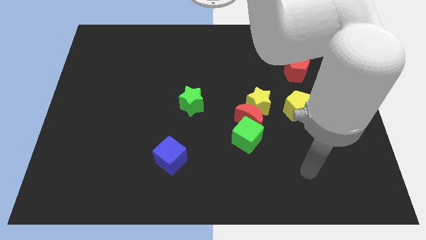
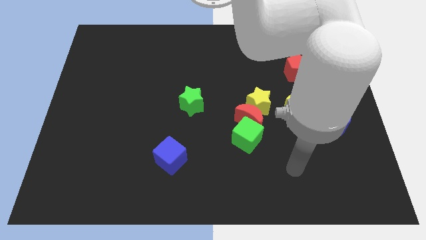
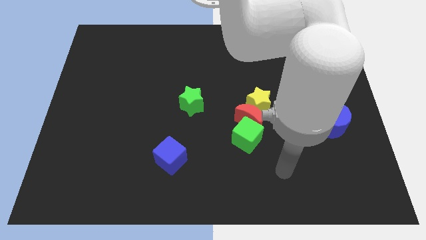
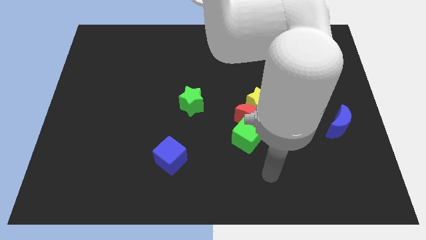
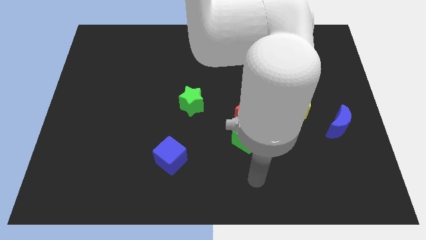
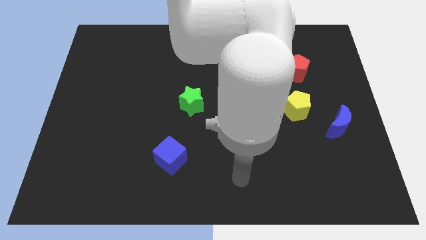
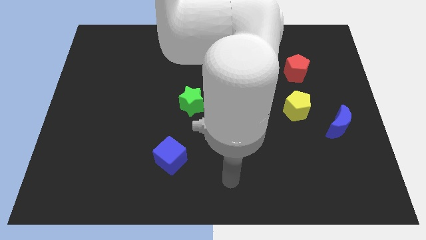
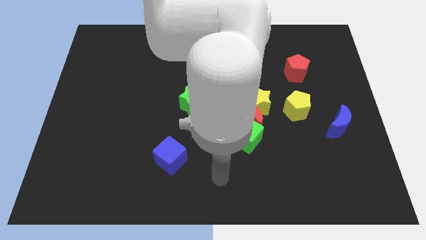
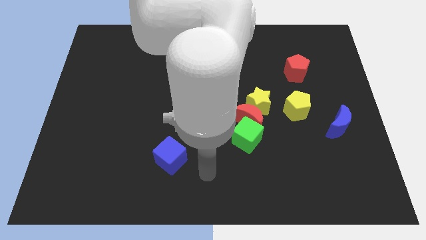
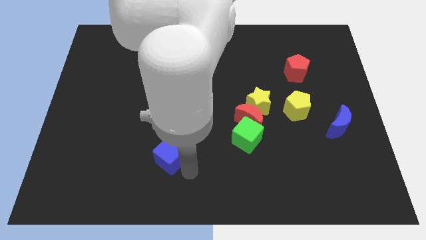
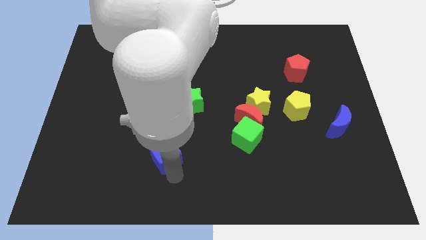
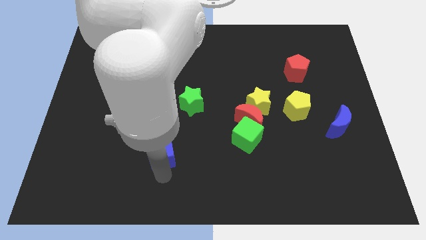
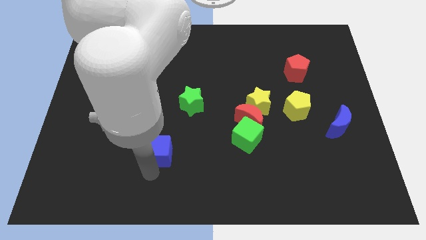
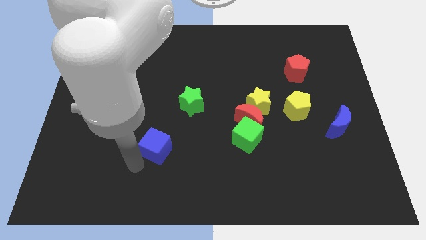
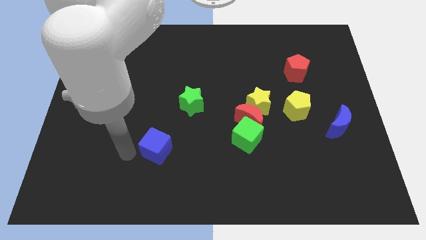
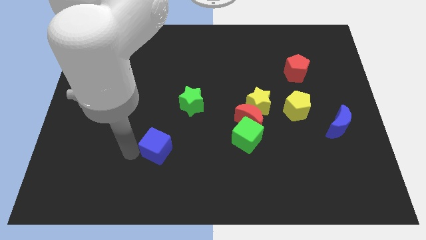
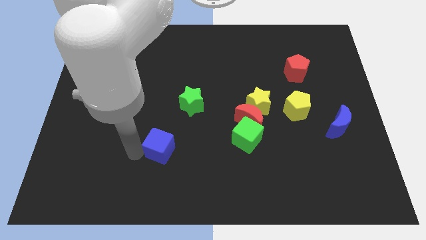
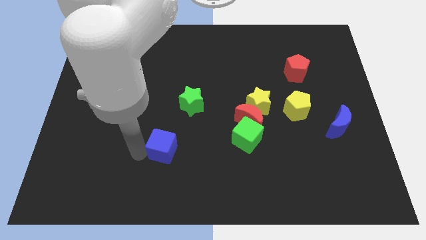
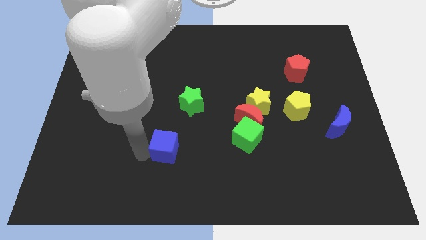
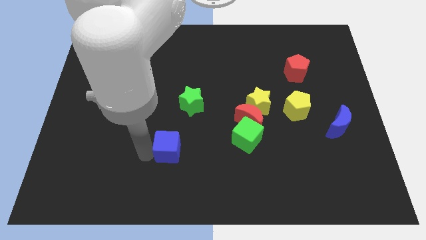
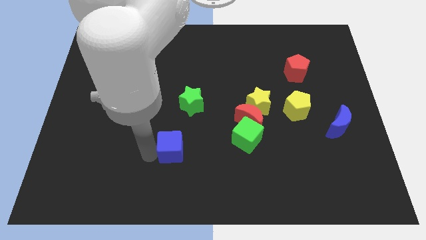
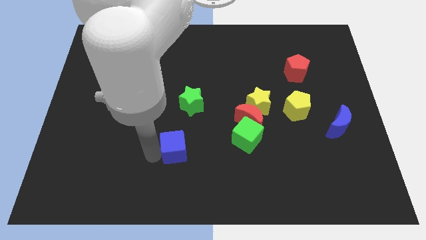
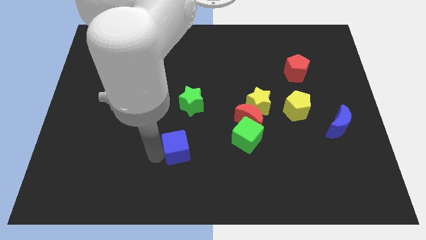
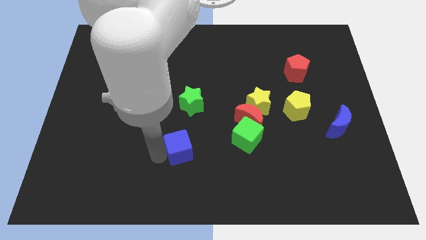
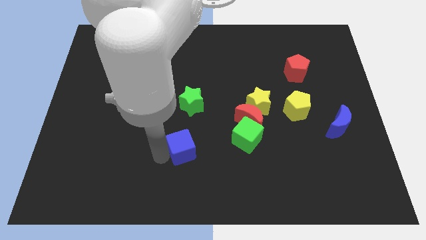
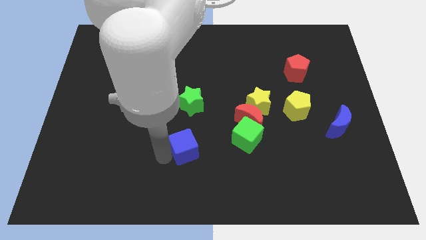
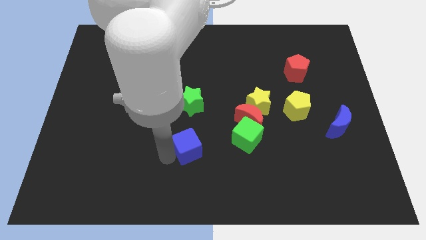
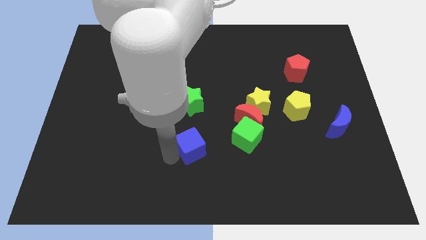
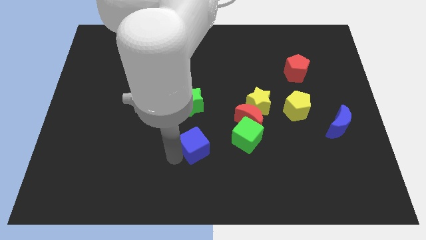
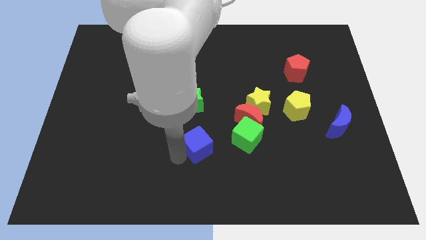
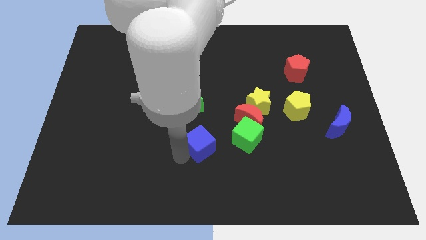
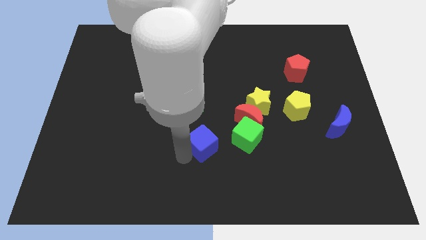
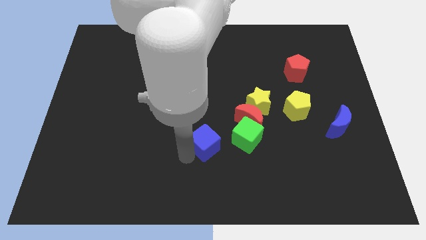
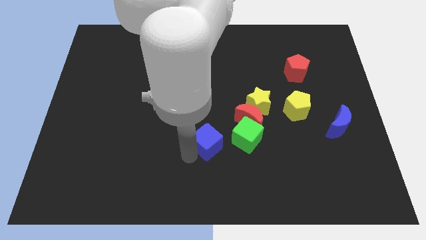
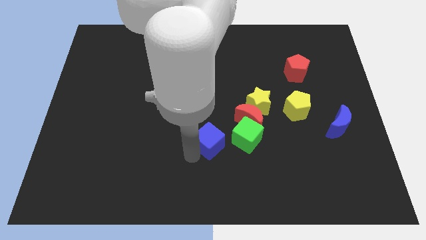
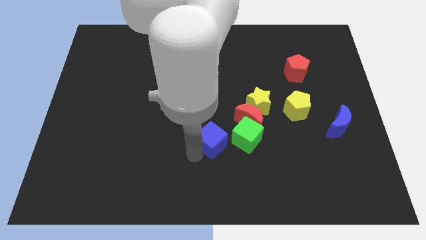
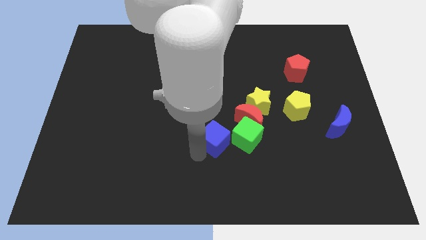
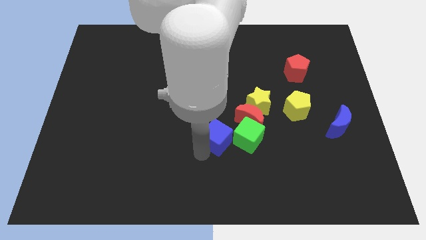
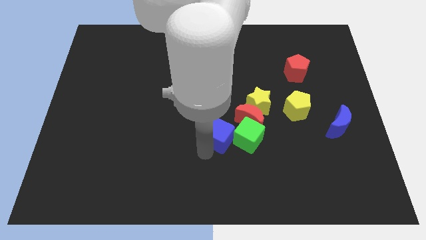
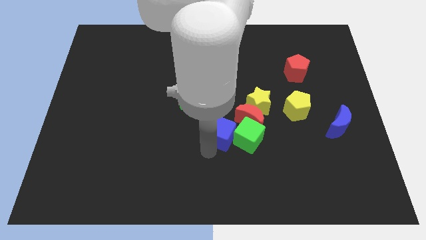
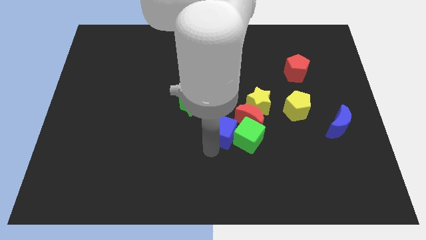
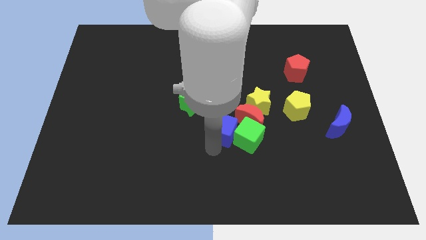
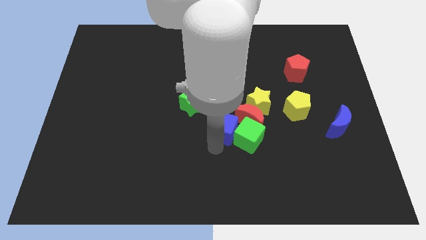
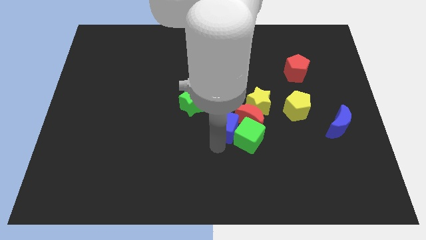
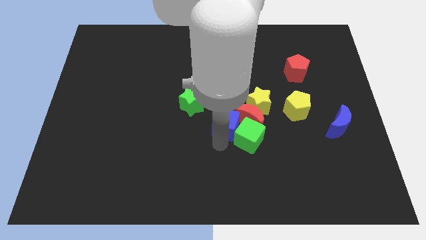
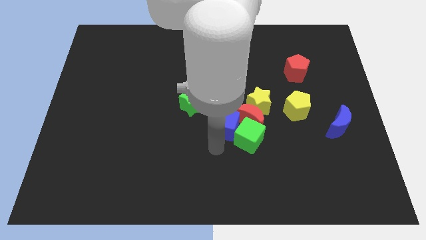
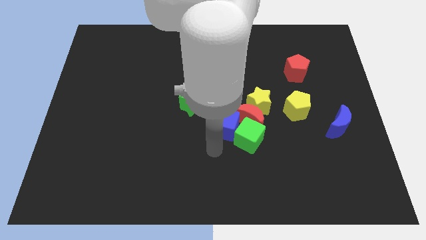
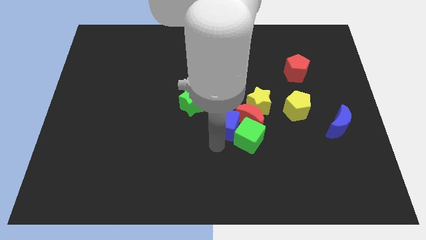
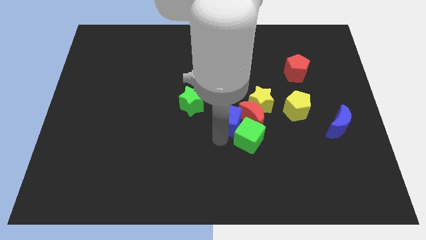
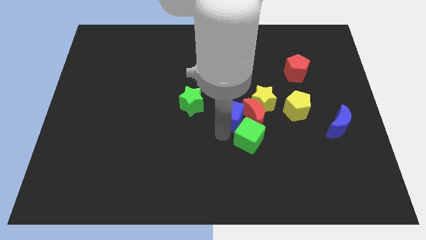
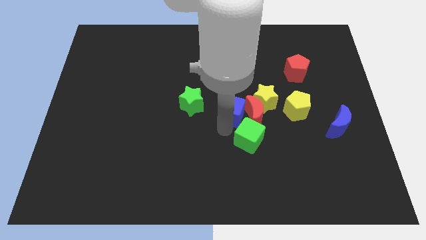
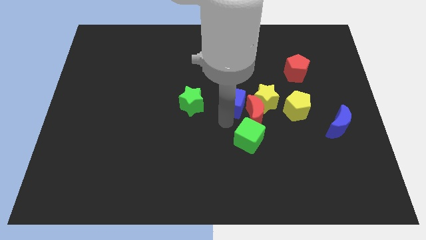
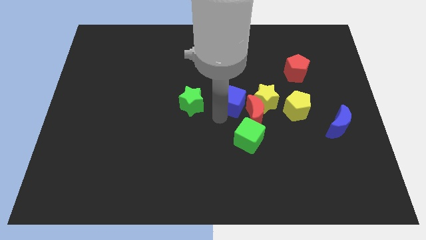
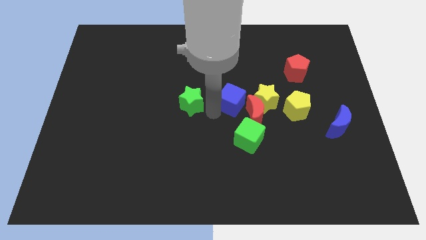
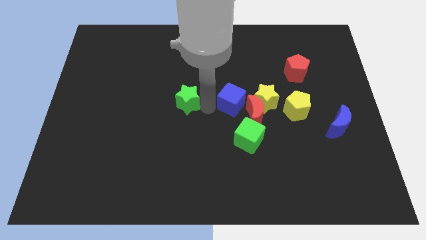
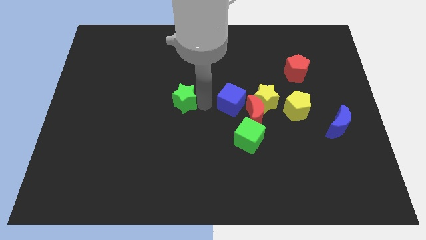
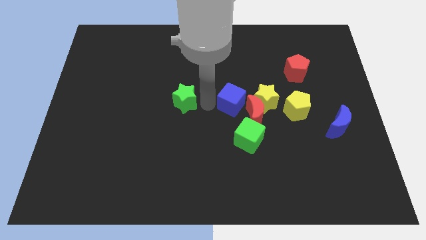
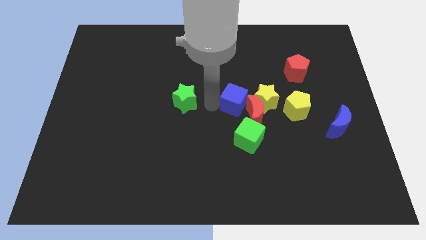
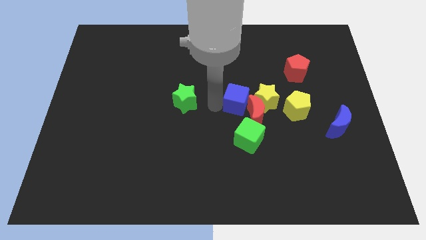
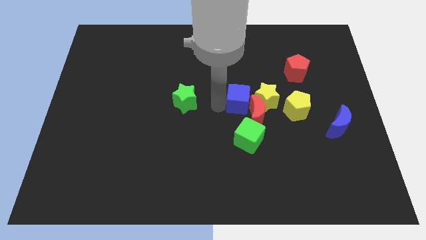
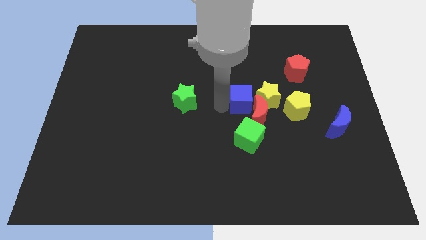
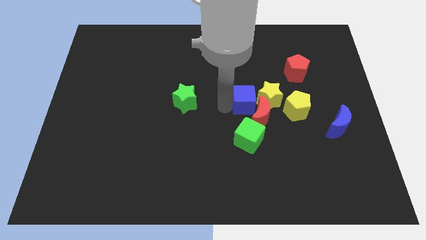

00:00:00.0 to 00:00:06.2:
push the blue cube next to the yellow star

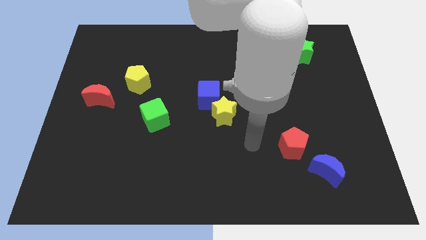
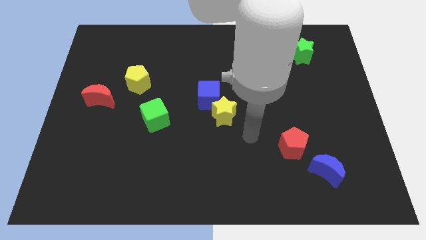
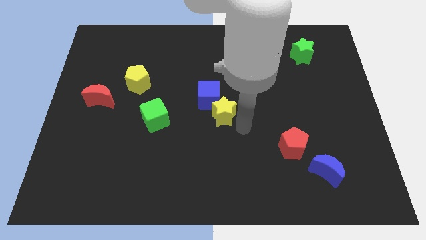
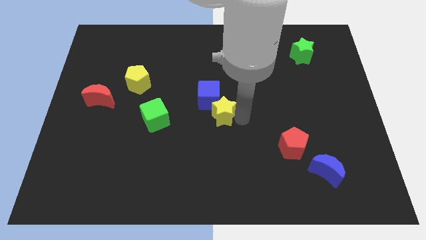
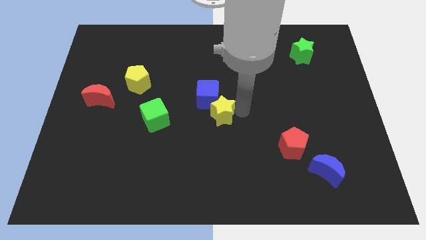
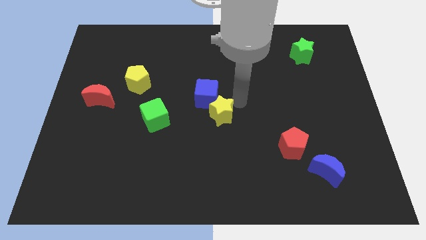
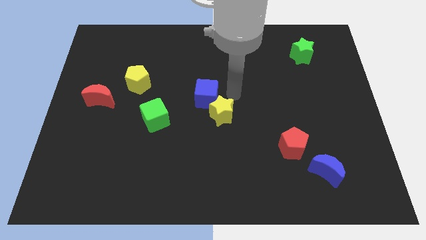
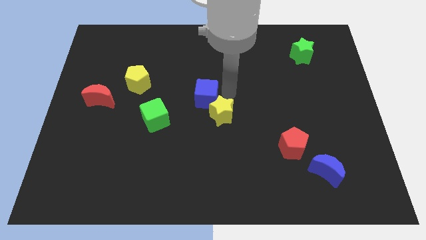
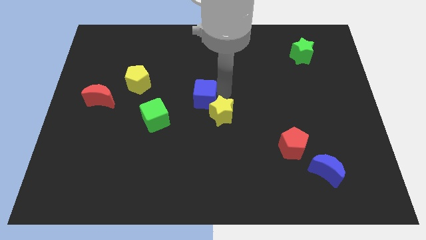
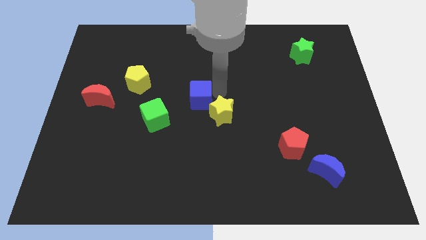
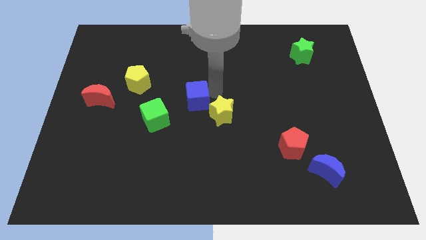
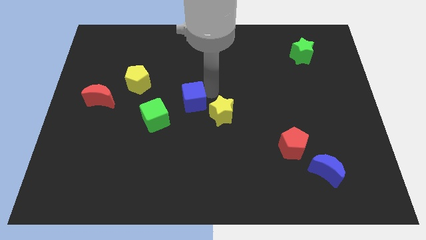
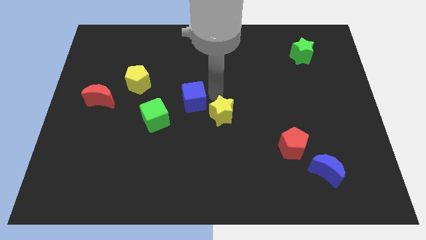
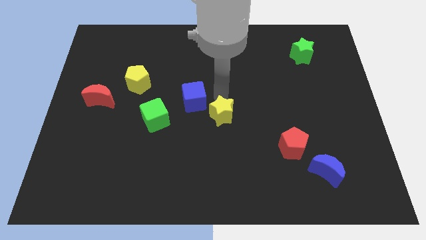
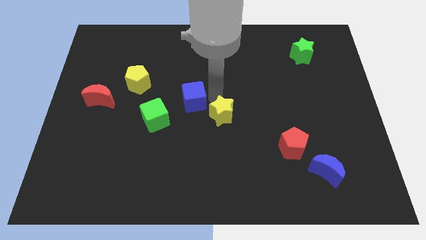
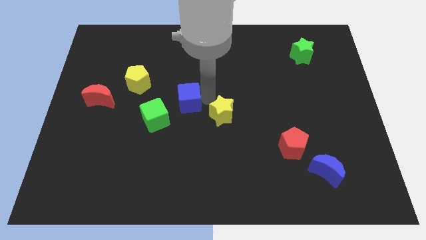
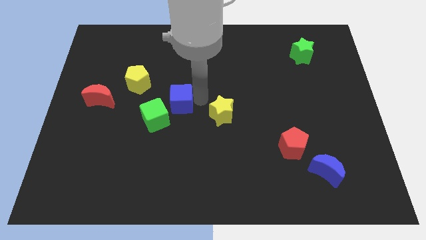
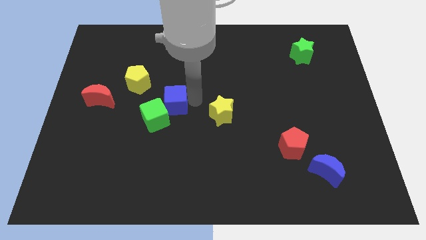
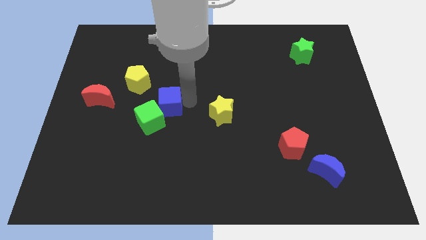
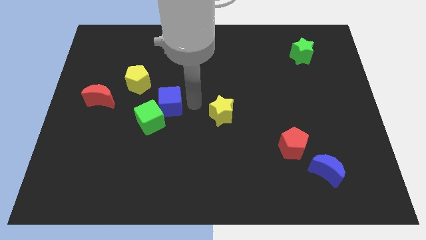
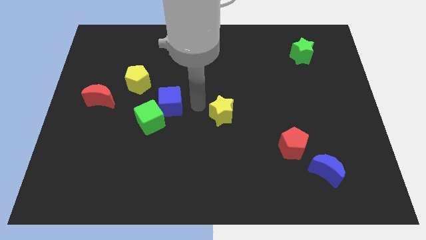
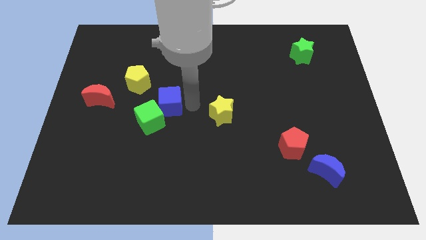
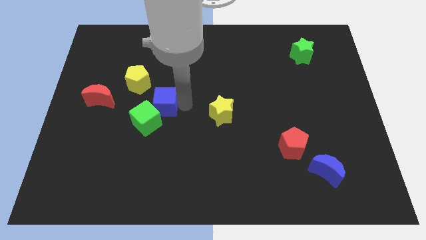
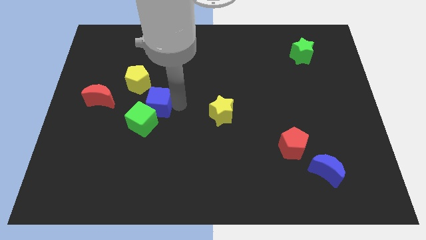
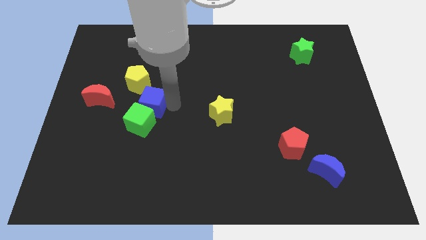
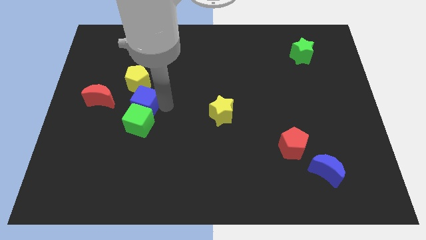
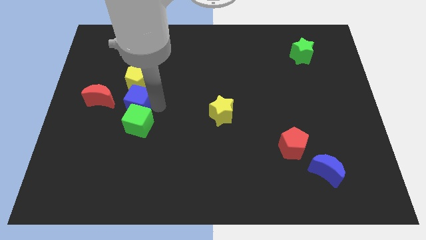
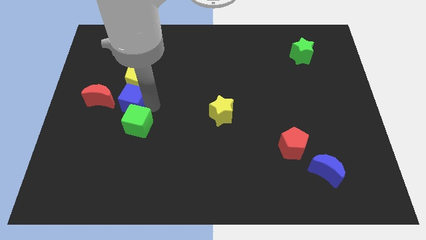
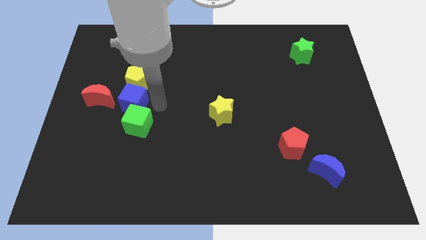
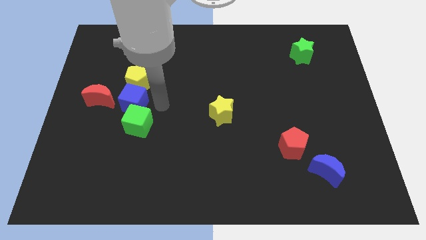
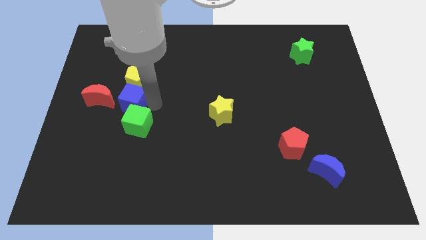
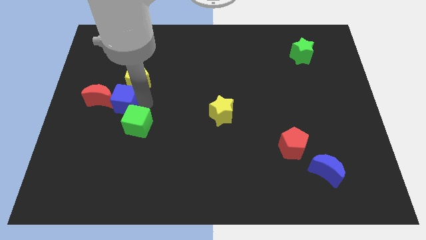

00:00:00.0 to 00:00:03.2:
move the blue cube close to the red moon
